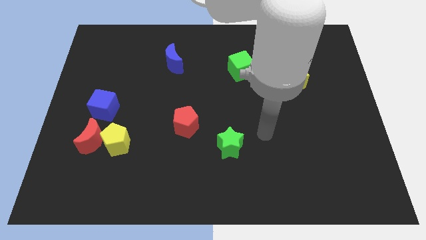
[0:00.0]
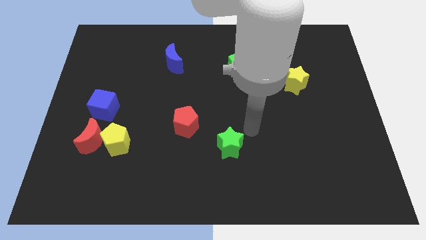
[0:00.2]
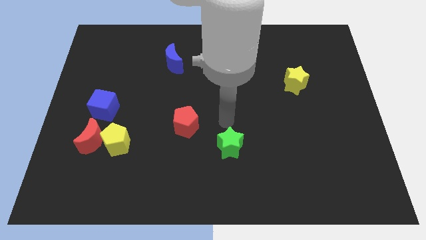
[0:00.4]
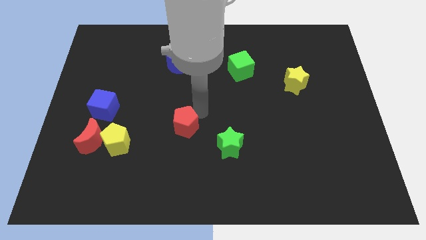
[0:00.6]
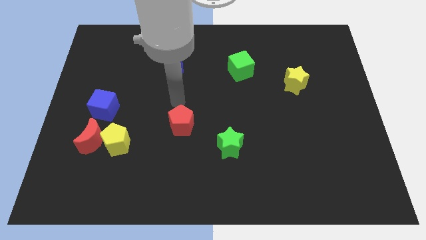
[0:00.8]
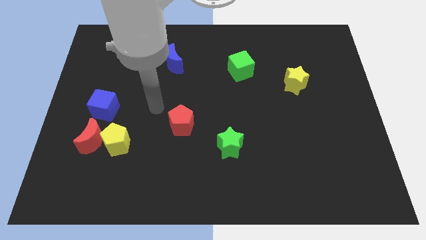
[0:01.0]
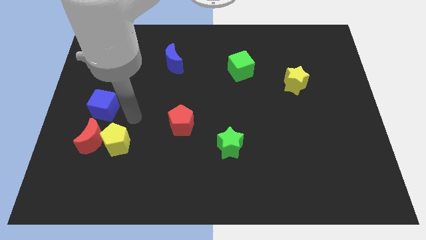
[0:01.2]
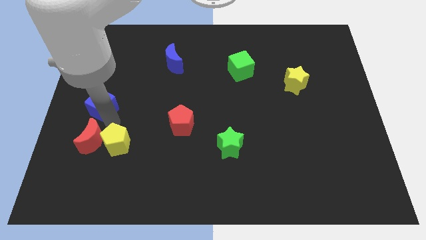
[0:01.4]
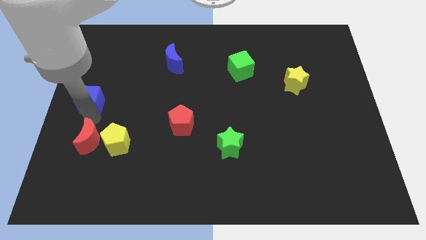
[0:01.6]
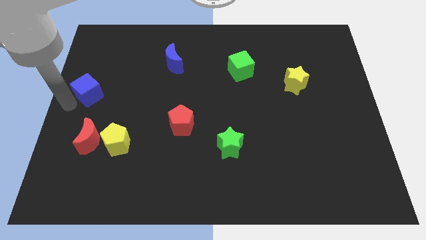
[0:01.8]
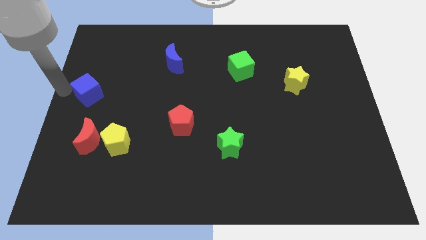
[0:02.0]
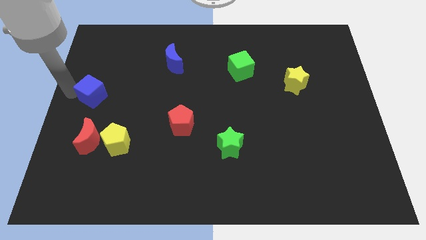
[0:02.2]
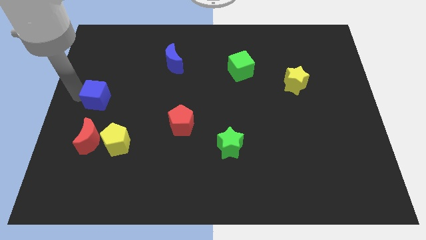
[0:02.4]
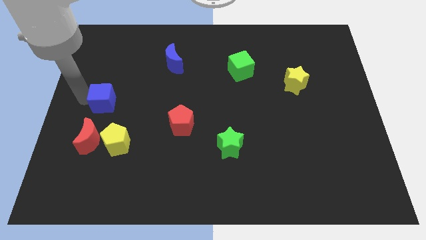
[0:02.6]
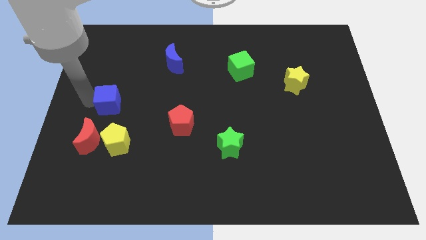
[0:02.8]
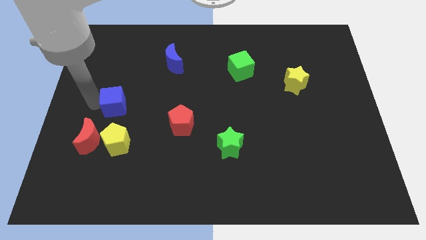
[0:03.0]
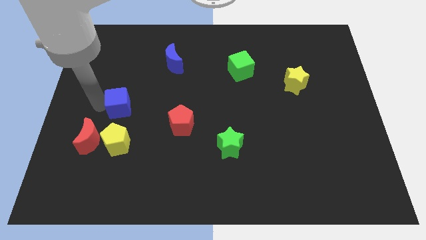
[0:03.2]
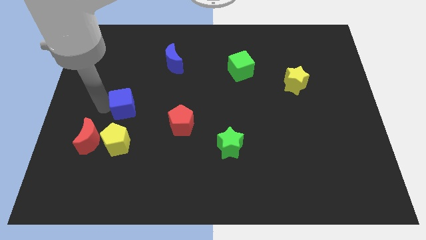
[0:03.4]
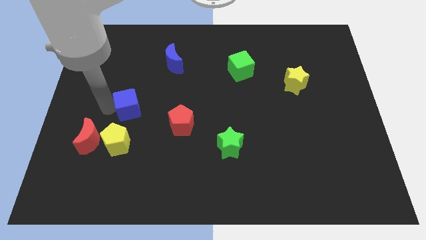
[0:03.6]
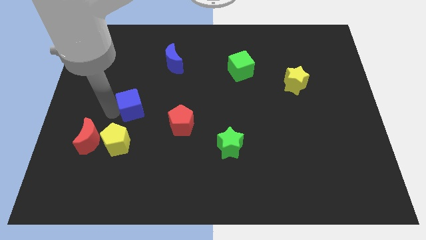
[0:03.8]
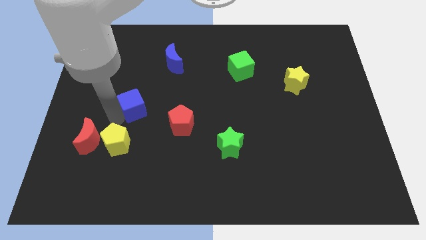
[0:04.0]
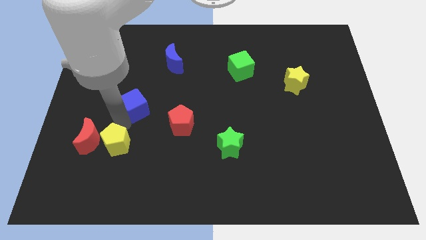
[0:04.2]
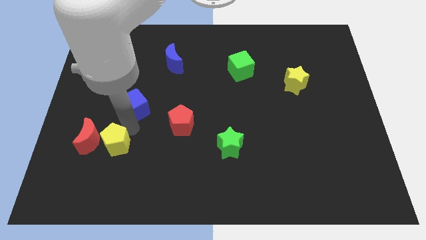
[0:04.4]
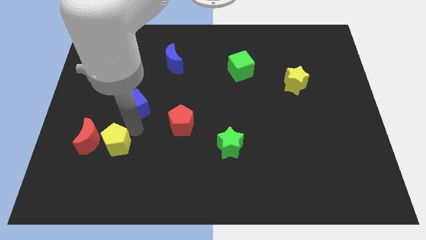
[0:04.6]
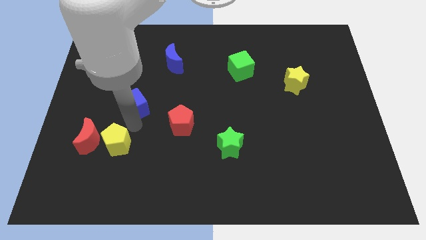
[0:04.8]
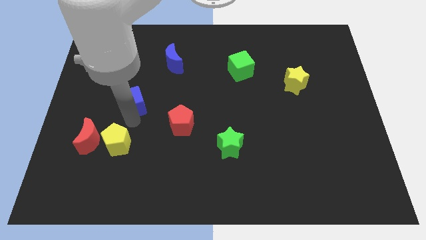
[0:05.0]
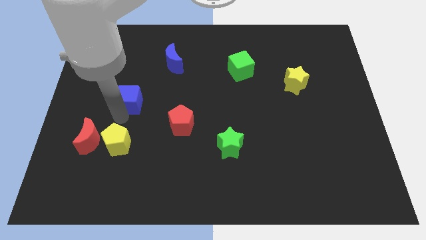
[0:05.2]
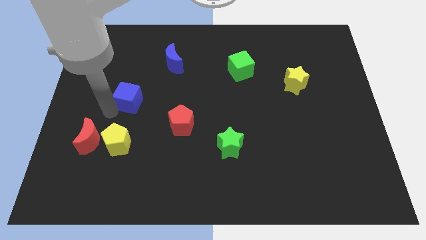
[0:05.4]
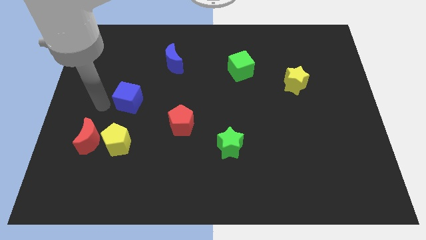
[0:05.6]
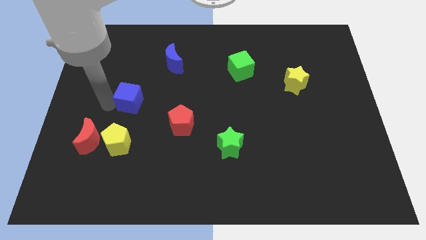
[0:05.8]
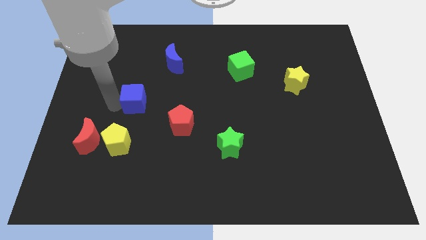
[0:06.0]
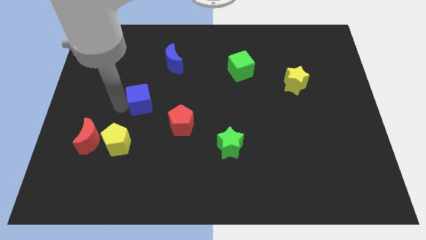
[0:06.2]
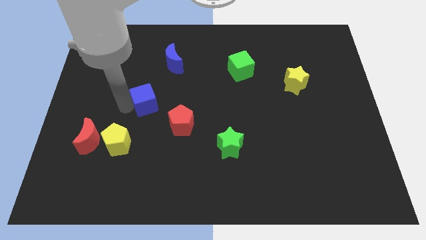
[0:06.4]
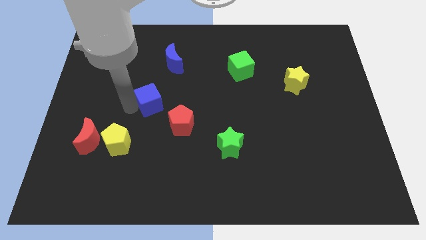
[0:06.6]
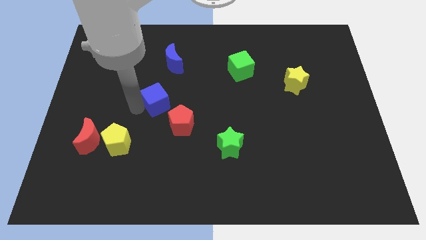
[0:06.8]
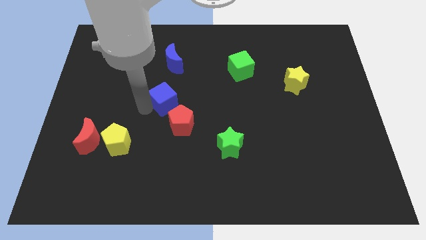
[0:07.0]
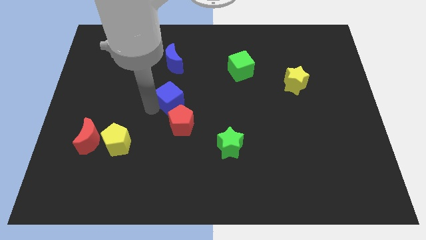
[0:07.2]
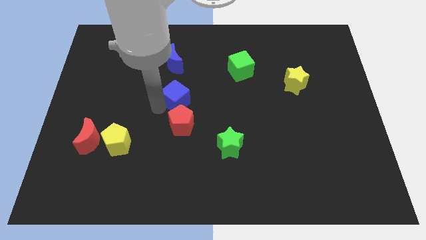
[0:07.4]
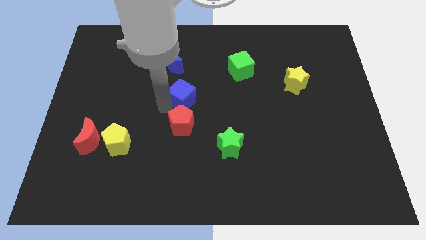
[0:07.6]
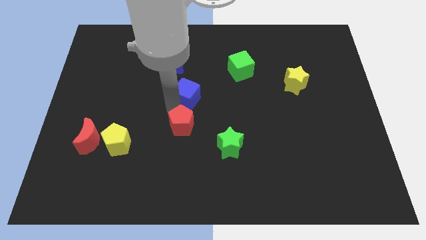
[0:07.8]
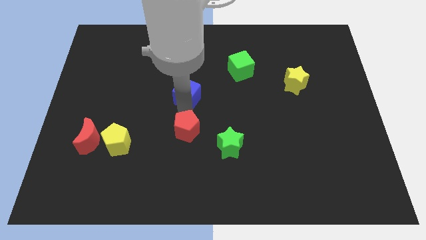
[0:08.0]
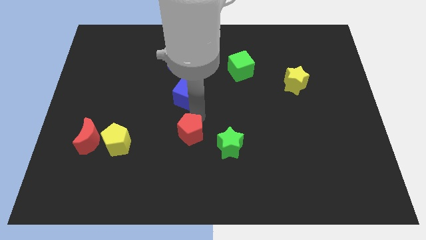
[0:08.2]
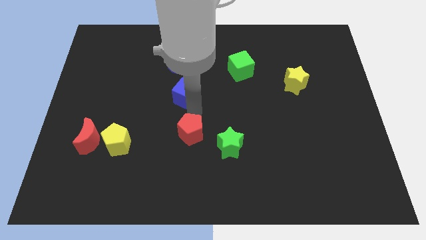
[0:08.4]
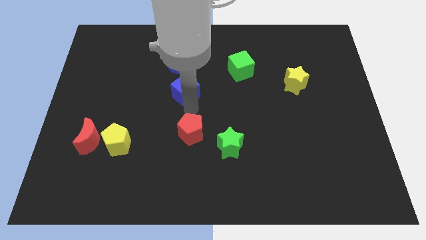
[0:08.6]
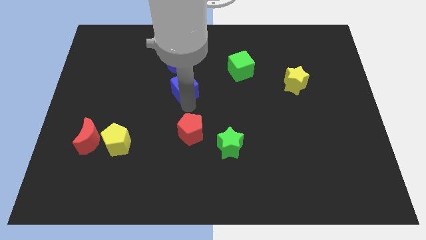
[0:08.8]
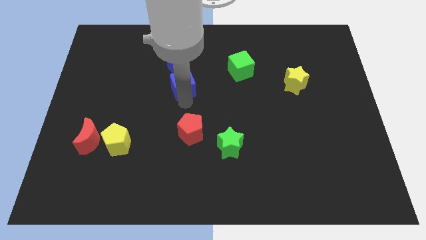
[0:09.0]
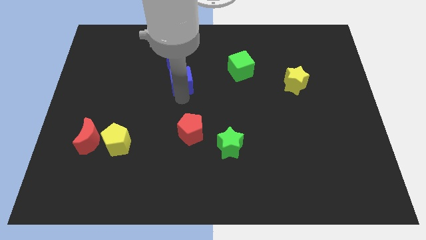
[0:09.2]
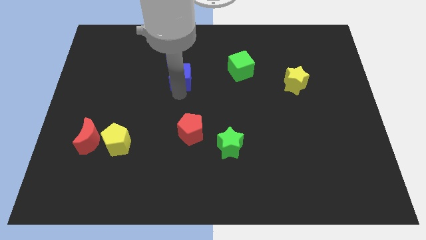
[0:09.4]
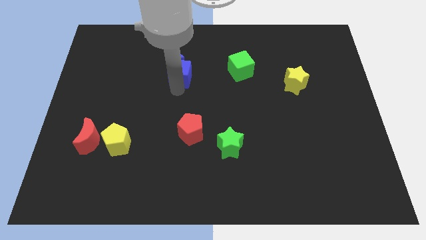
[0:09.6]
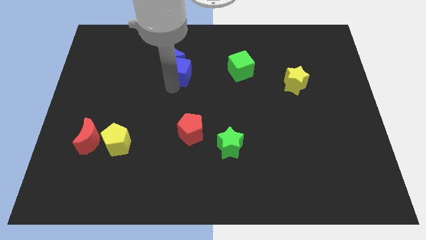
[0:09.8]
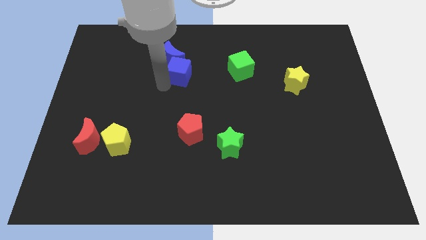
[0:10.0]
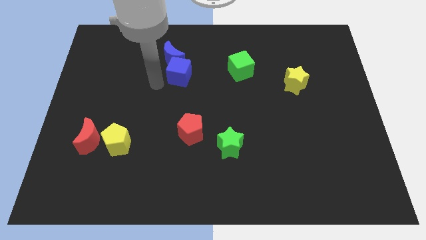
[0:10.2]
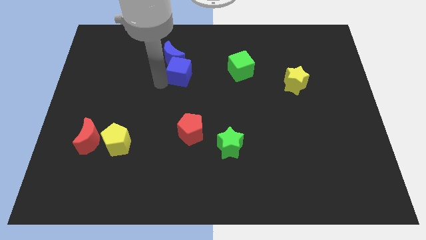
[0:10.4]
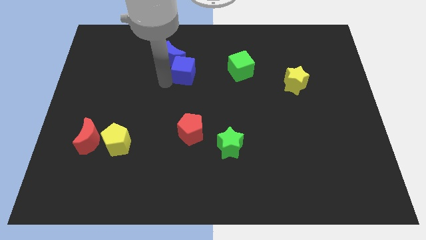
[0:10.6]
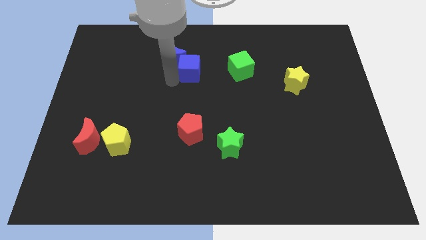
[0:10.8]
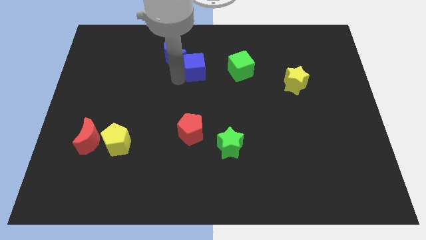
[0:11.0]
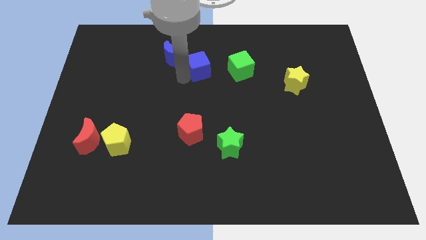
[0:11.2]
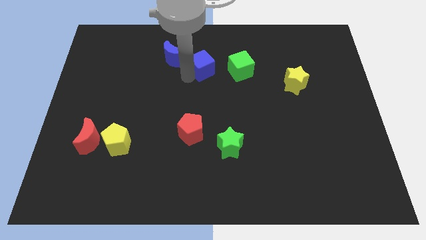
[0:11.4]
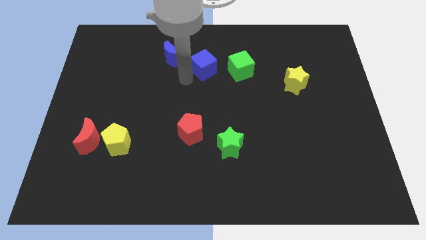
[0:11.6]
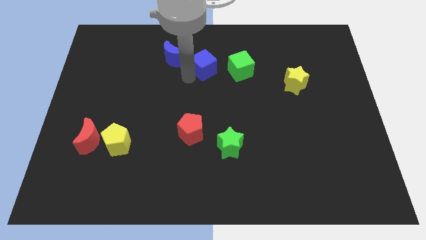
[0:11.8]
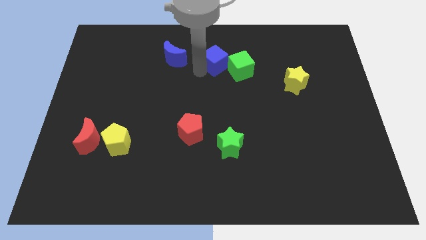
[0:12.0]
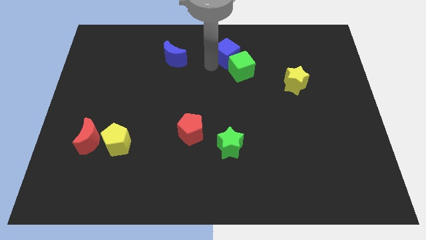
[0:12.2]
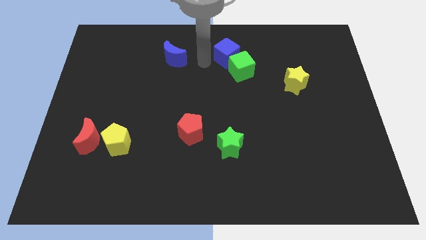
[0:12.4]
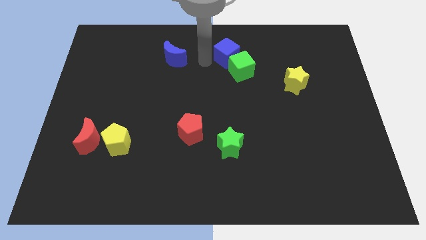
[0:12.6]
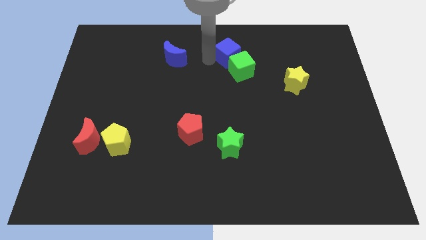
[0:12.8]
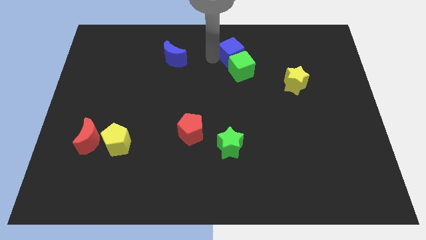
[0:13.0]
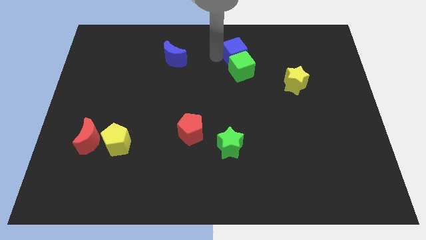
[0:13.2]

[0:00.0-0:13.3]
slide the blue cube diagonally up and to the right of the green cube

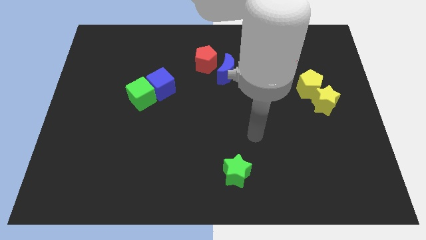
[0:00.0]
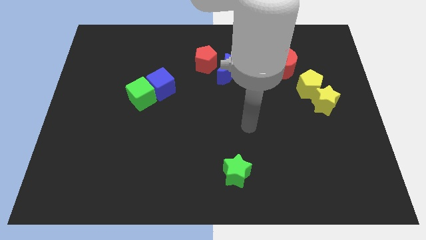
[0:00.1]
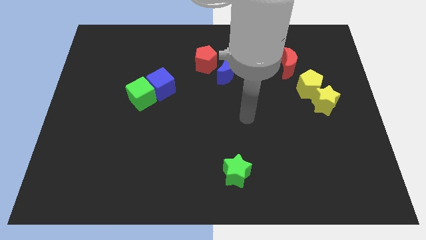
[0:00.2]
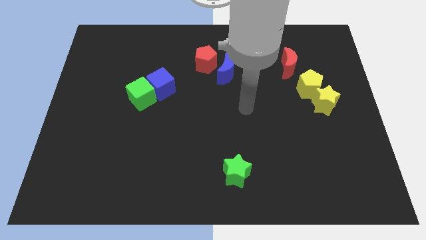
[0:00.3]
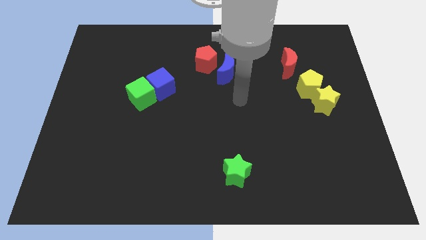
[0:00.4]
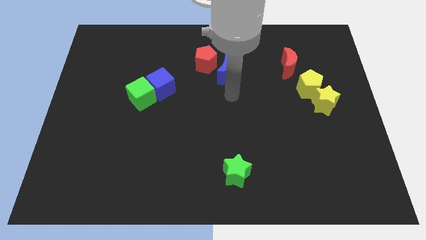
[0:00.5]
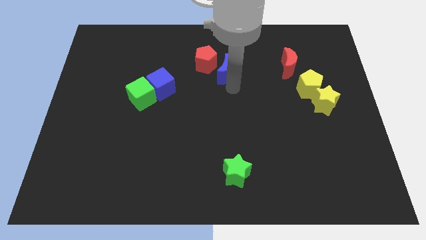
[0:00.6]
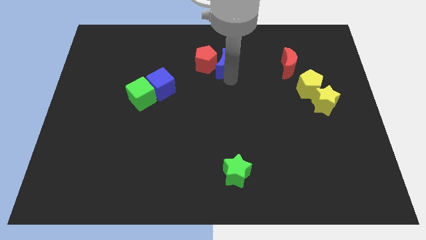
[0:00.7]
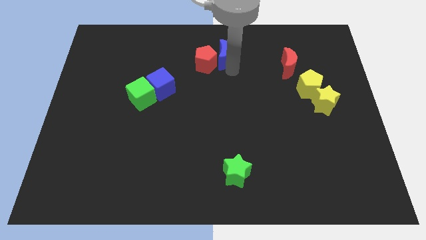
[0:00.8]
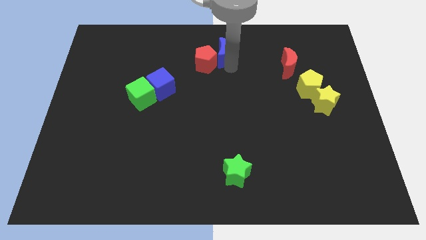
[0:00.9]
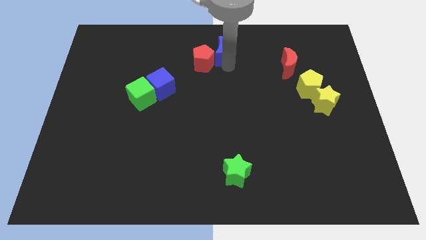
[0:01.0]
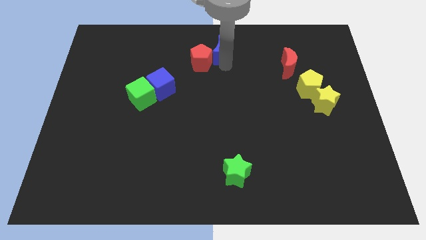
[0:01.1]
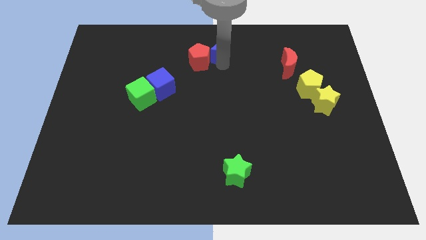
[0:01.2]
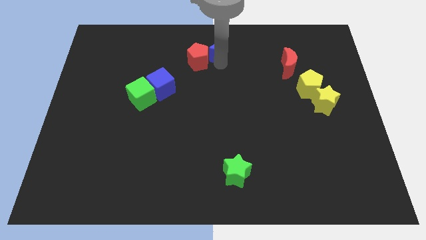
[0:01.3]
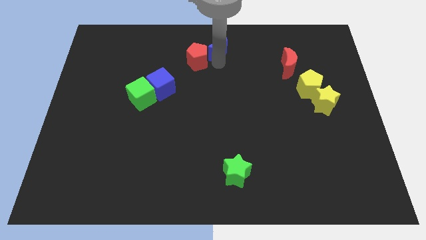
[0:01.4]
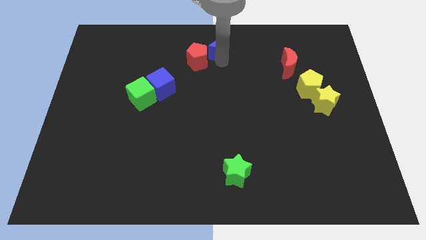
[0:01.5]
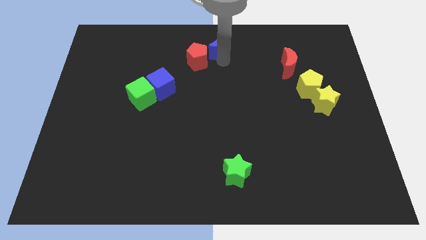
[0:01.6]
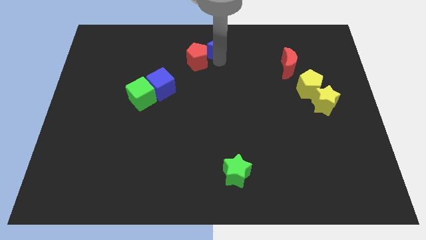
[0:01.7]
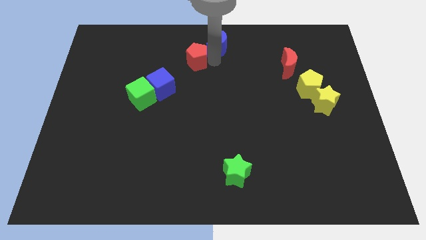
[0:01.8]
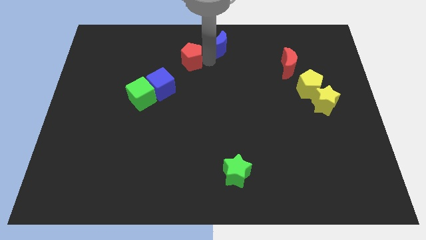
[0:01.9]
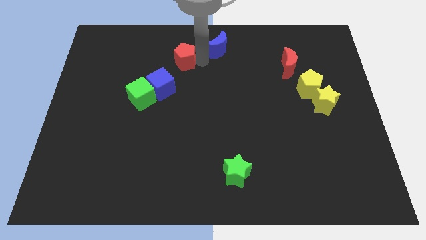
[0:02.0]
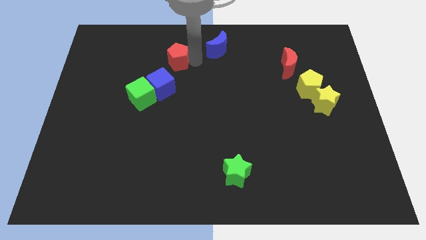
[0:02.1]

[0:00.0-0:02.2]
slide the red pentagon to the top of the blue cube
